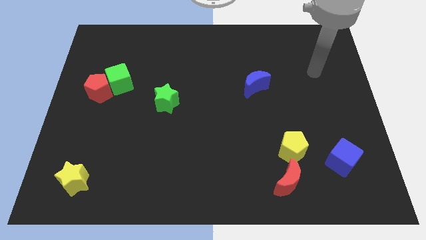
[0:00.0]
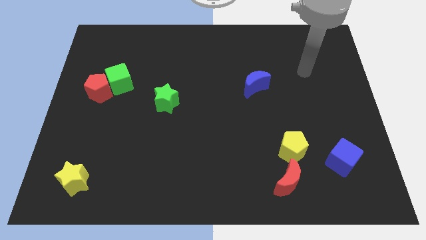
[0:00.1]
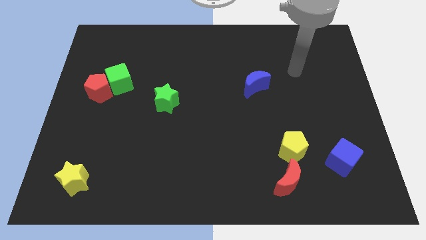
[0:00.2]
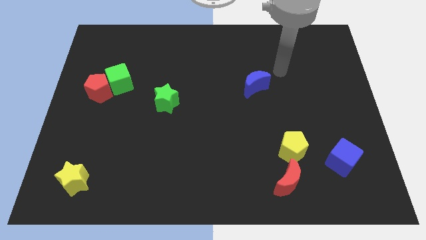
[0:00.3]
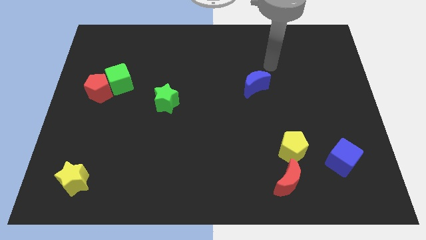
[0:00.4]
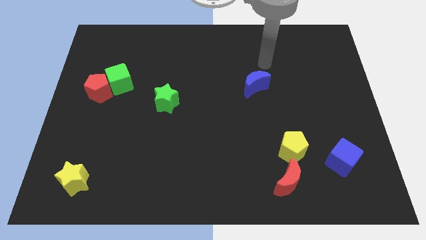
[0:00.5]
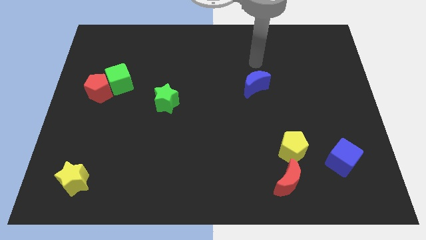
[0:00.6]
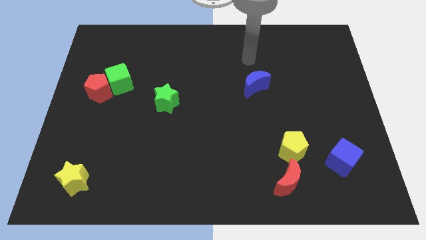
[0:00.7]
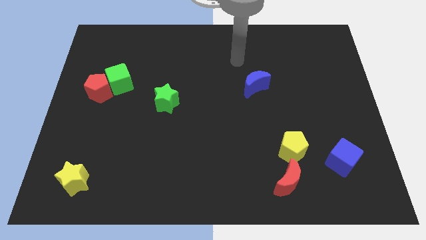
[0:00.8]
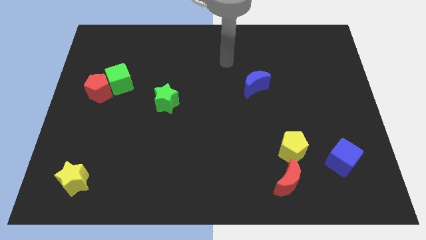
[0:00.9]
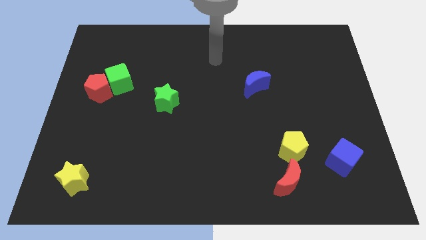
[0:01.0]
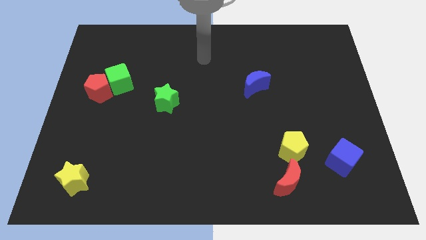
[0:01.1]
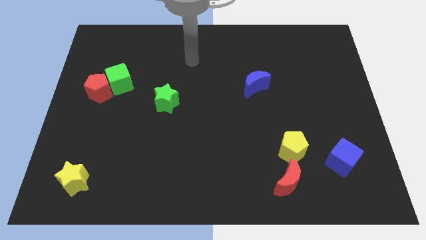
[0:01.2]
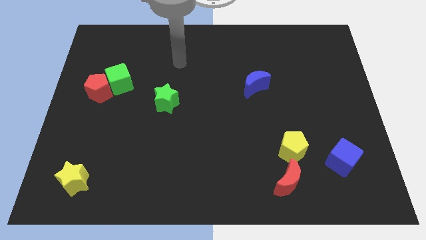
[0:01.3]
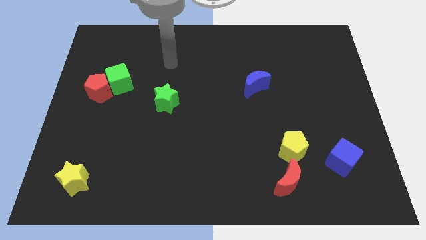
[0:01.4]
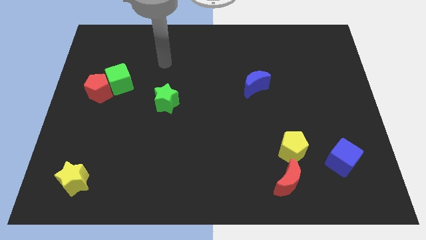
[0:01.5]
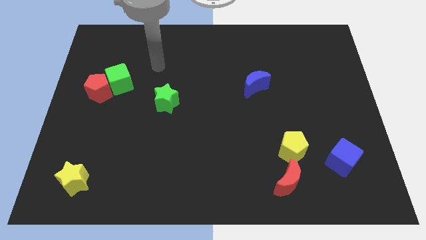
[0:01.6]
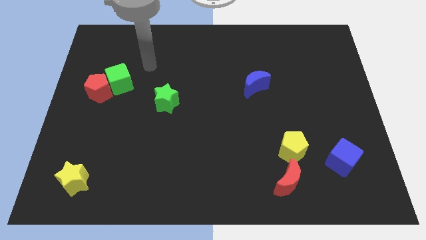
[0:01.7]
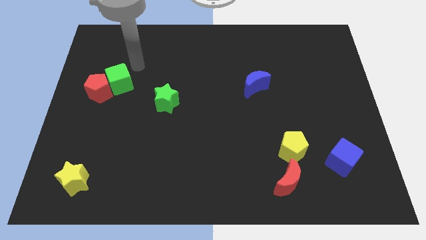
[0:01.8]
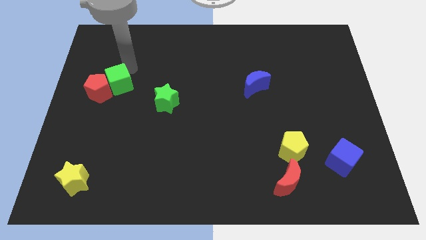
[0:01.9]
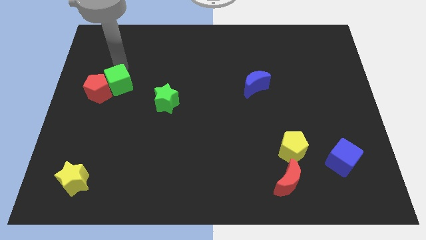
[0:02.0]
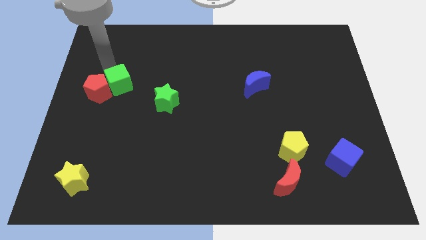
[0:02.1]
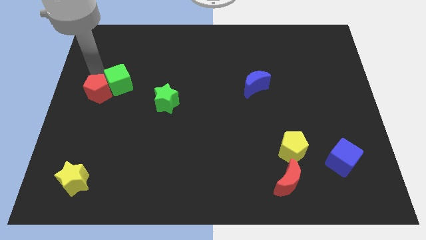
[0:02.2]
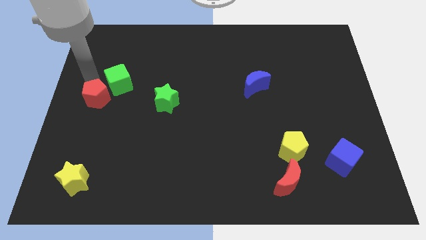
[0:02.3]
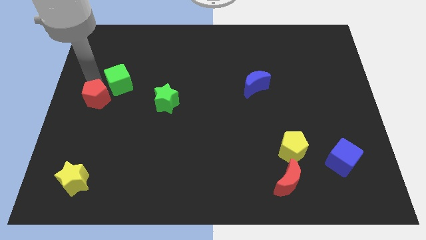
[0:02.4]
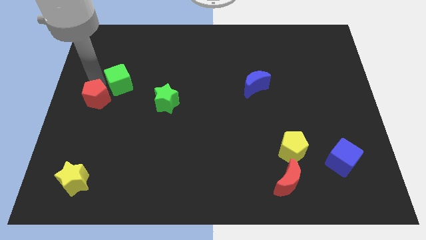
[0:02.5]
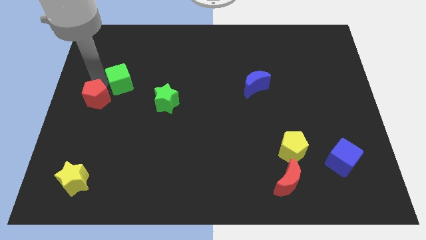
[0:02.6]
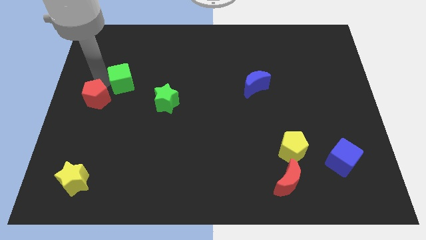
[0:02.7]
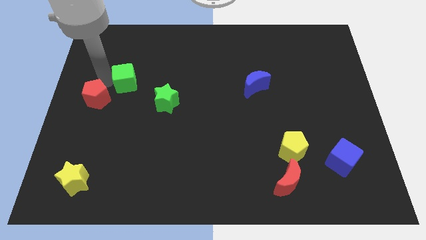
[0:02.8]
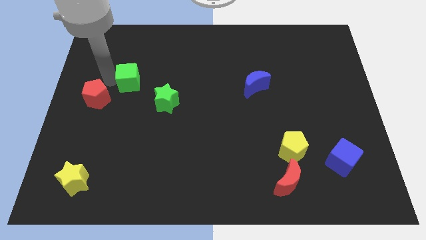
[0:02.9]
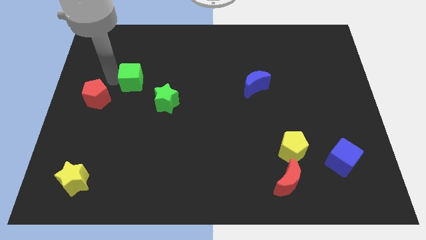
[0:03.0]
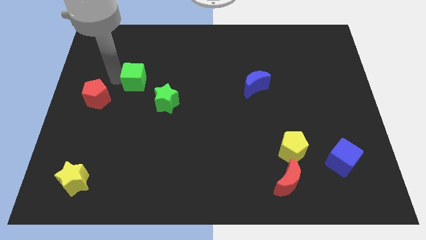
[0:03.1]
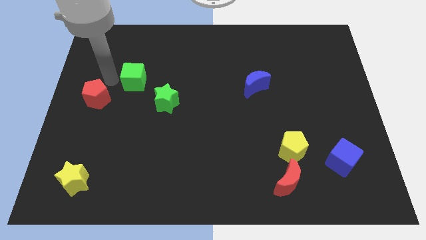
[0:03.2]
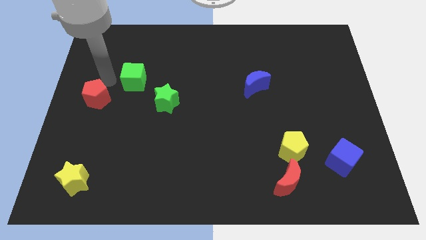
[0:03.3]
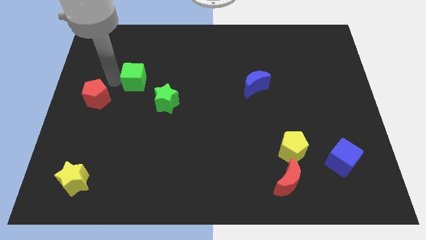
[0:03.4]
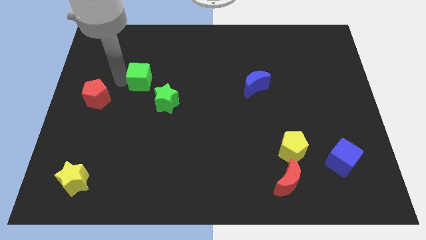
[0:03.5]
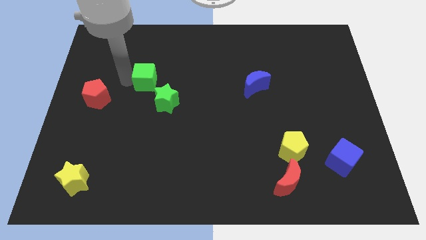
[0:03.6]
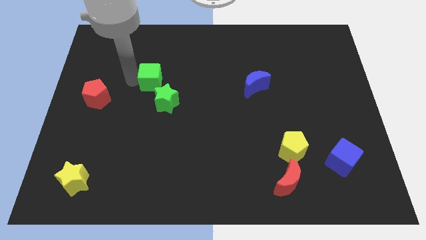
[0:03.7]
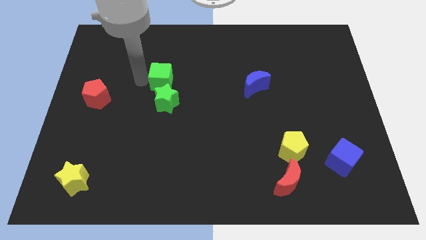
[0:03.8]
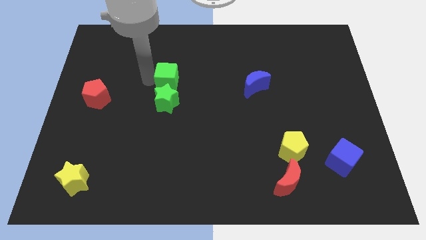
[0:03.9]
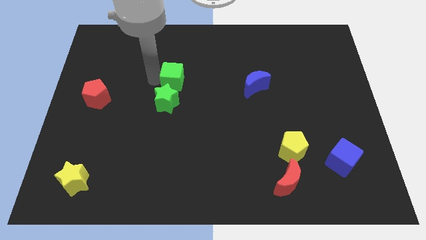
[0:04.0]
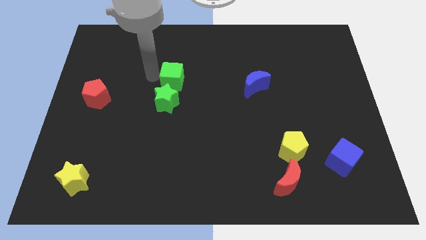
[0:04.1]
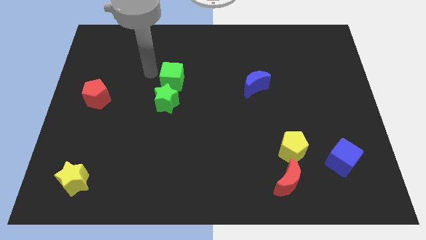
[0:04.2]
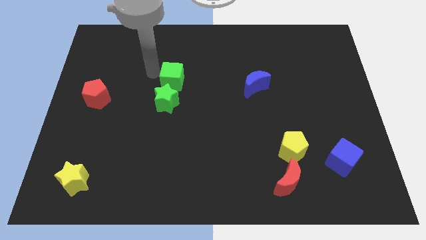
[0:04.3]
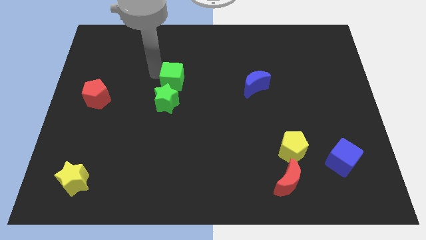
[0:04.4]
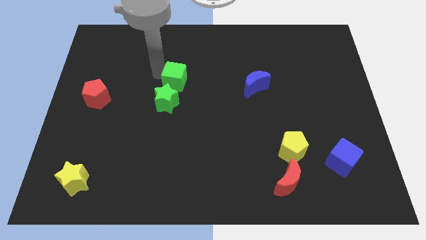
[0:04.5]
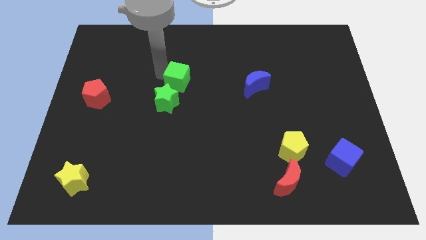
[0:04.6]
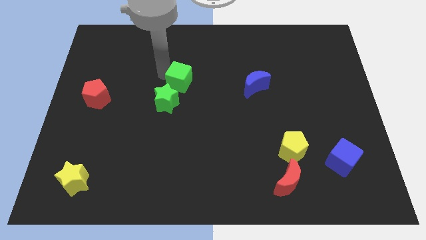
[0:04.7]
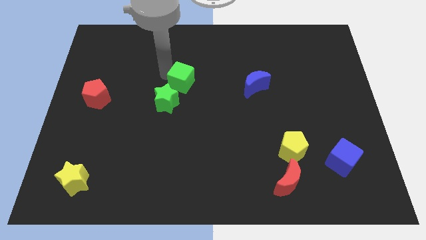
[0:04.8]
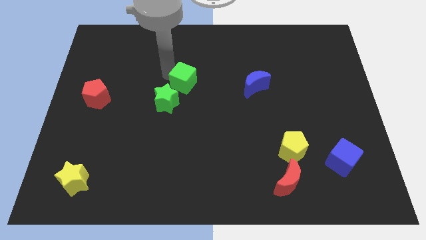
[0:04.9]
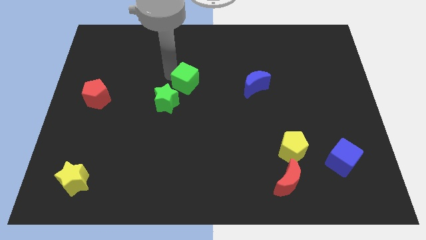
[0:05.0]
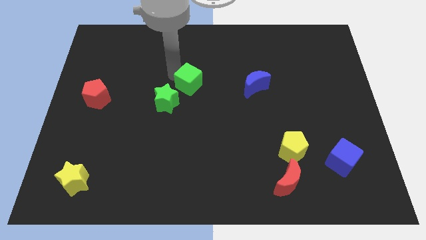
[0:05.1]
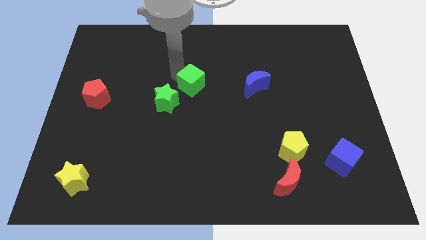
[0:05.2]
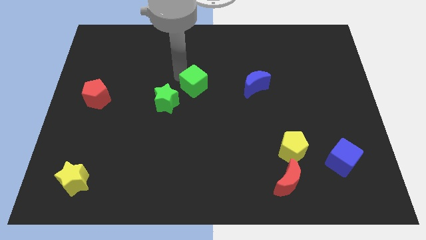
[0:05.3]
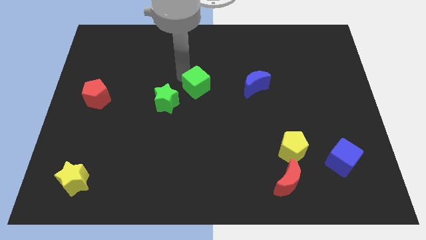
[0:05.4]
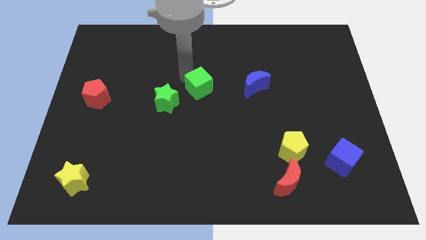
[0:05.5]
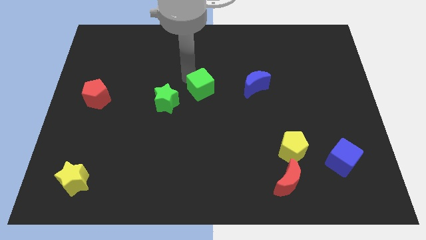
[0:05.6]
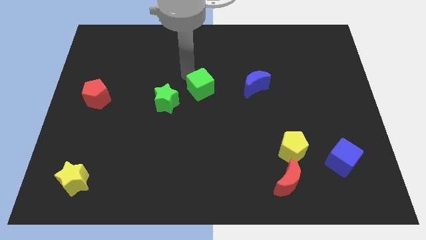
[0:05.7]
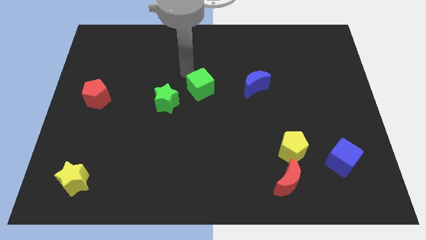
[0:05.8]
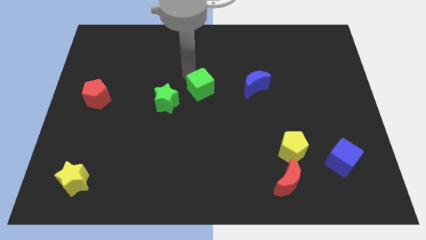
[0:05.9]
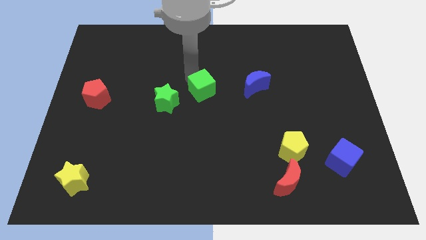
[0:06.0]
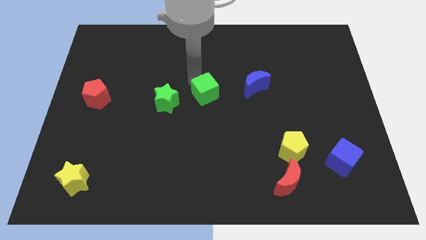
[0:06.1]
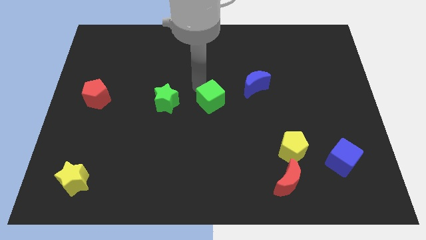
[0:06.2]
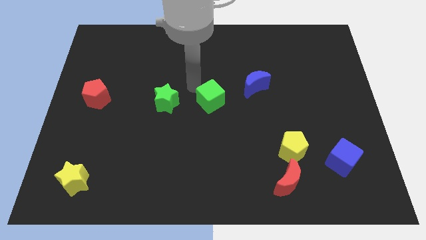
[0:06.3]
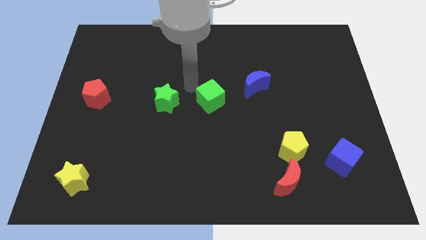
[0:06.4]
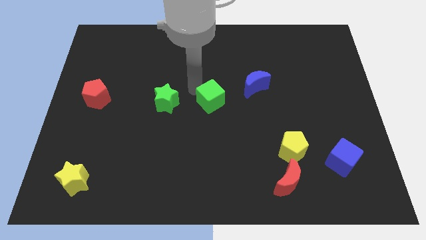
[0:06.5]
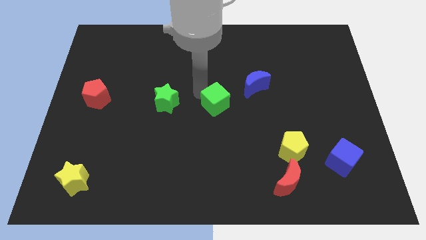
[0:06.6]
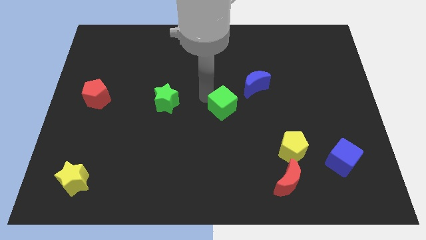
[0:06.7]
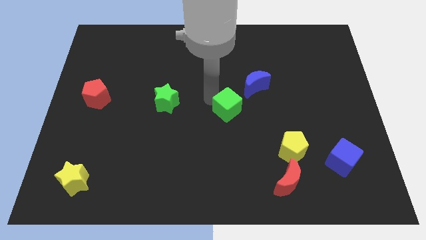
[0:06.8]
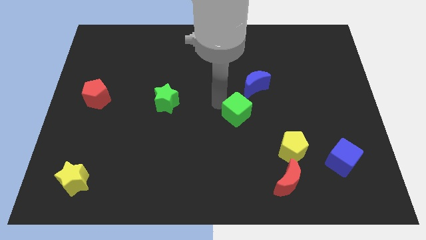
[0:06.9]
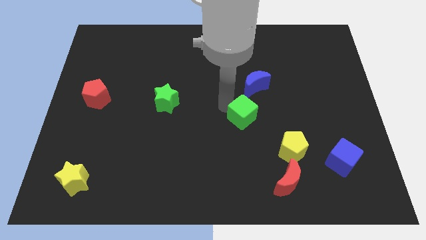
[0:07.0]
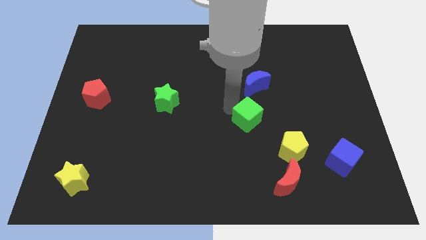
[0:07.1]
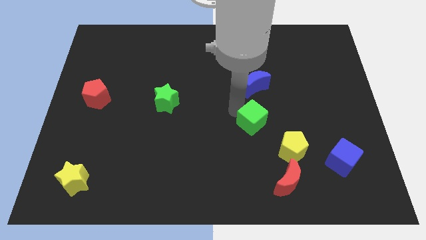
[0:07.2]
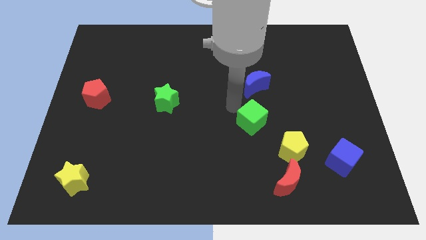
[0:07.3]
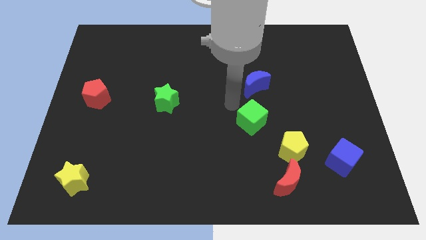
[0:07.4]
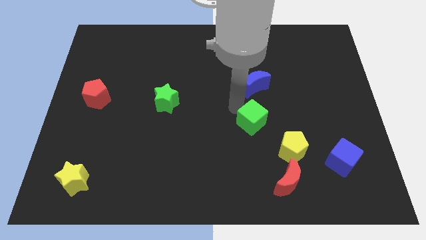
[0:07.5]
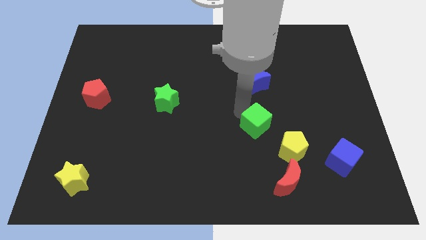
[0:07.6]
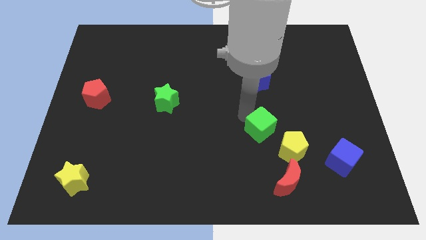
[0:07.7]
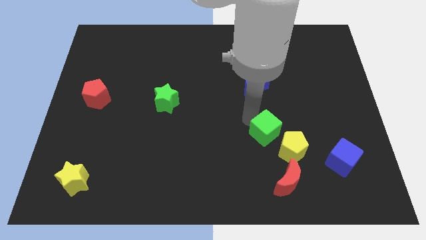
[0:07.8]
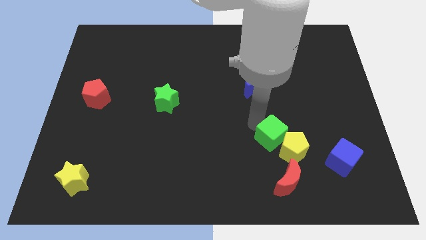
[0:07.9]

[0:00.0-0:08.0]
slide the green cube towards the yellow pentagon
